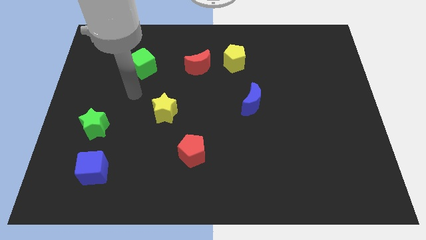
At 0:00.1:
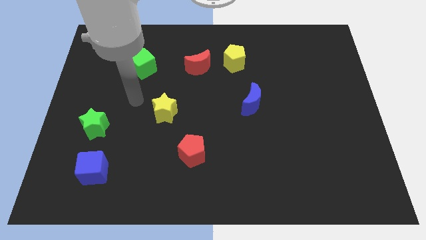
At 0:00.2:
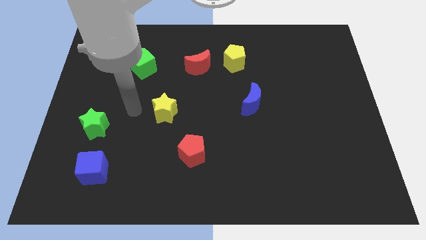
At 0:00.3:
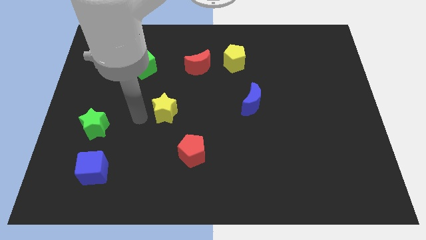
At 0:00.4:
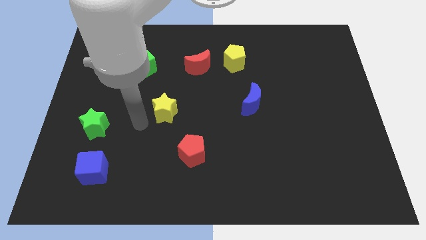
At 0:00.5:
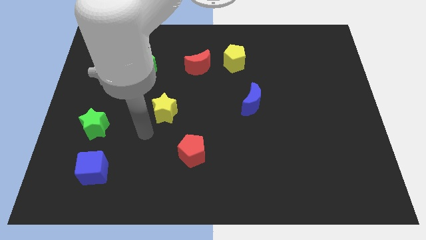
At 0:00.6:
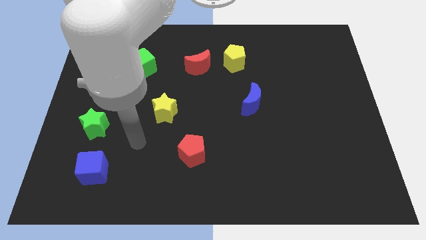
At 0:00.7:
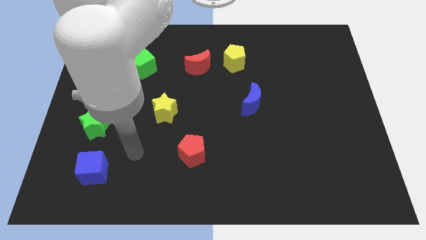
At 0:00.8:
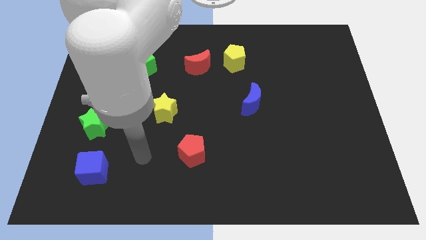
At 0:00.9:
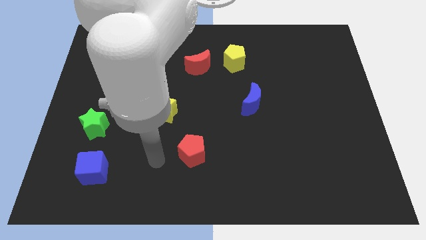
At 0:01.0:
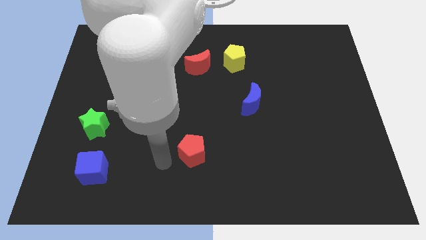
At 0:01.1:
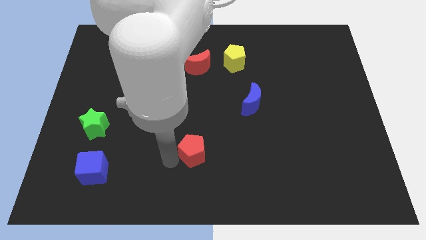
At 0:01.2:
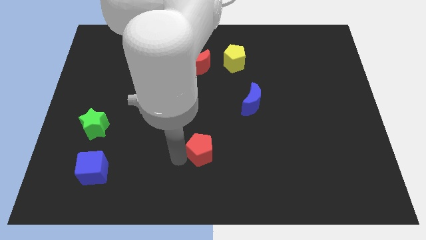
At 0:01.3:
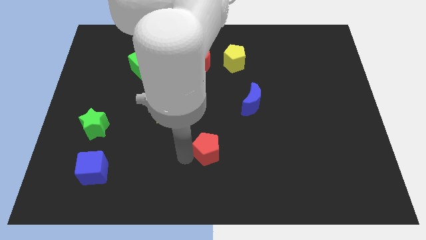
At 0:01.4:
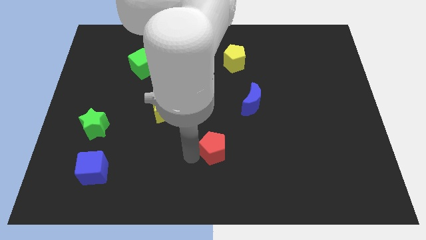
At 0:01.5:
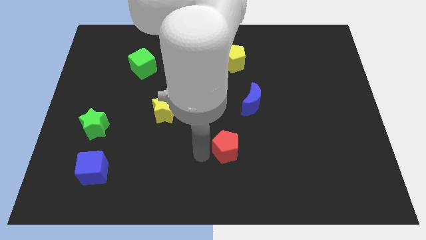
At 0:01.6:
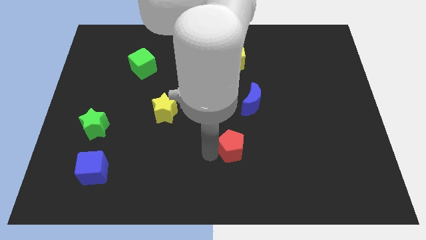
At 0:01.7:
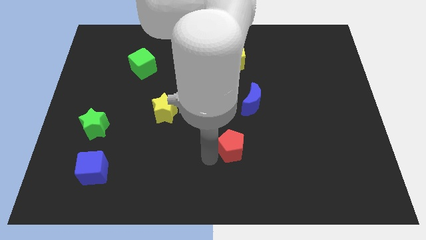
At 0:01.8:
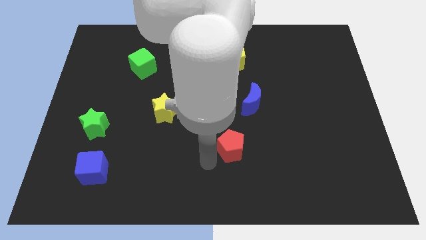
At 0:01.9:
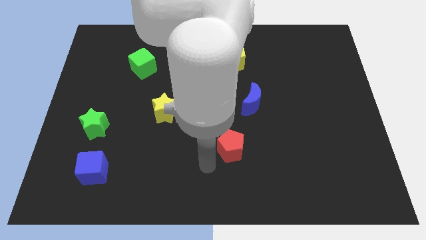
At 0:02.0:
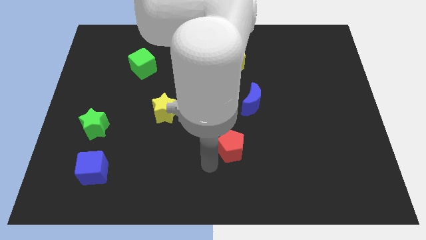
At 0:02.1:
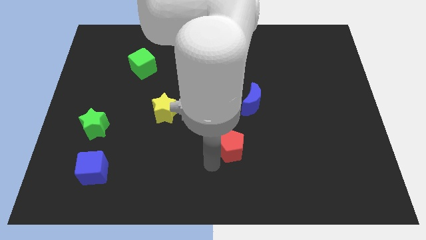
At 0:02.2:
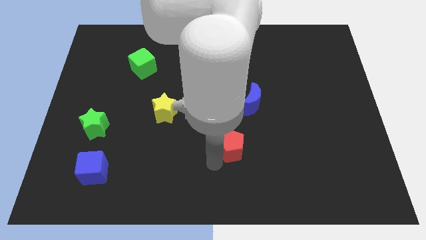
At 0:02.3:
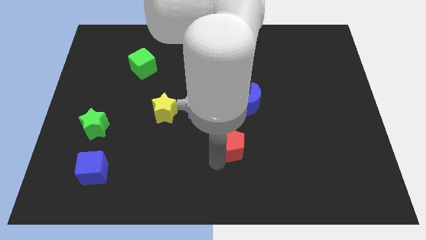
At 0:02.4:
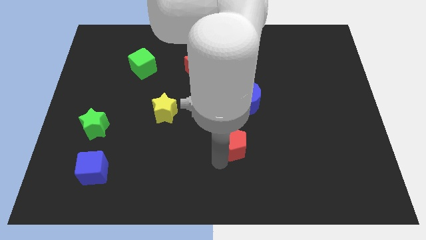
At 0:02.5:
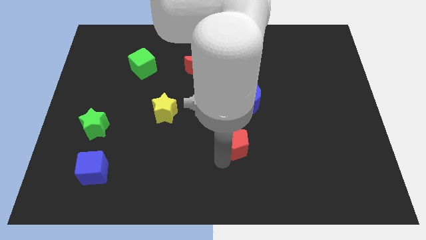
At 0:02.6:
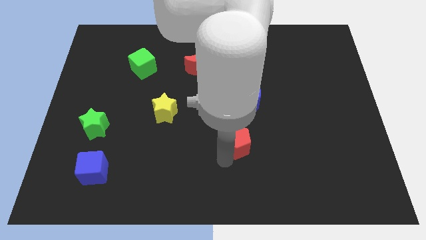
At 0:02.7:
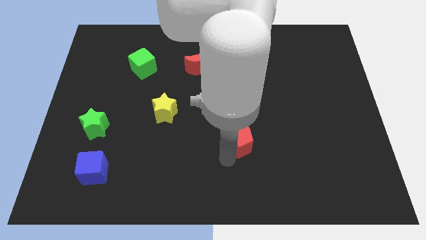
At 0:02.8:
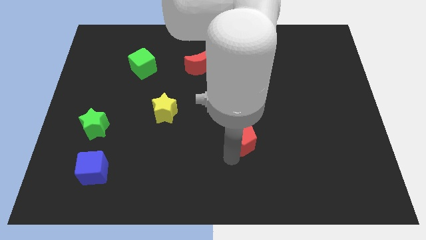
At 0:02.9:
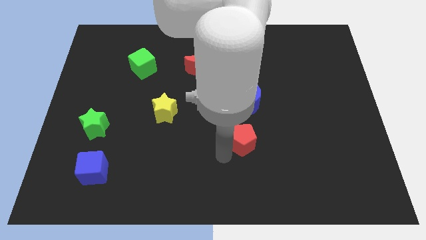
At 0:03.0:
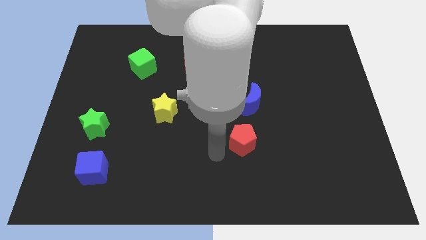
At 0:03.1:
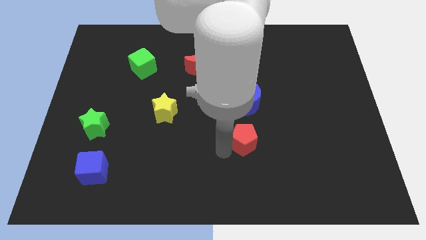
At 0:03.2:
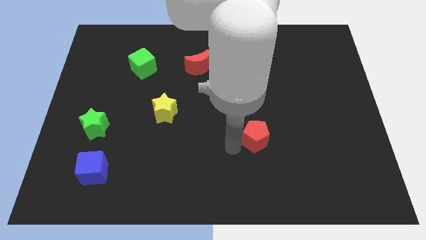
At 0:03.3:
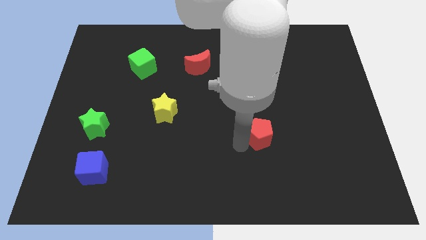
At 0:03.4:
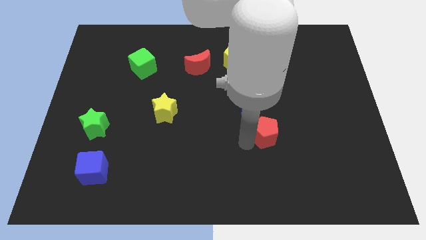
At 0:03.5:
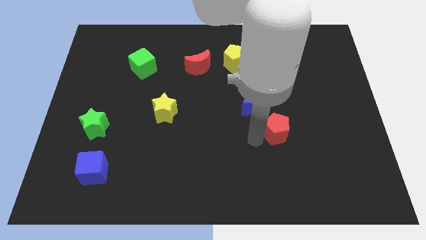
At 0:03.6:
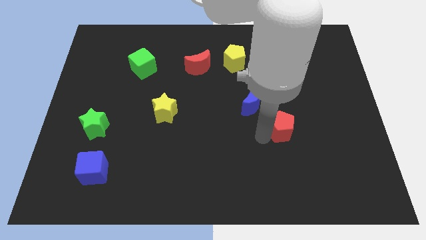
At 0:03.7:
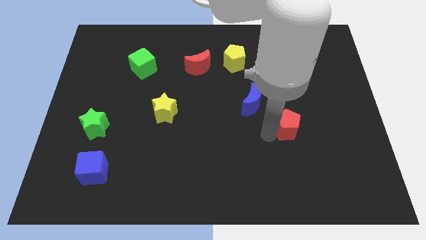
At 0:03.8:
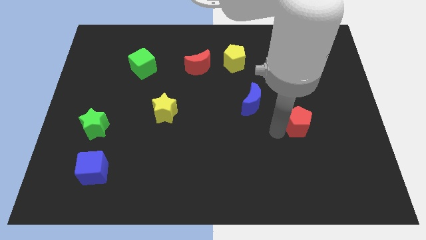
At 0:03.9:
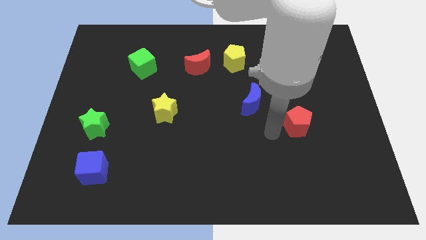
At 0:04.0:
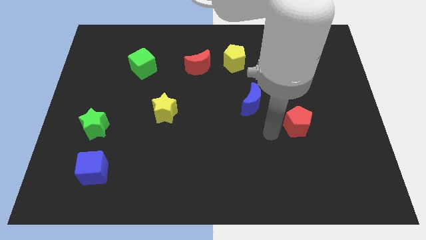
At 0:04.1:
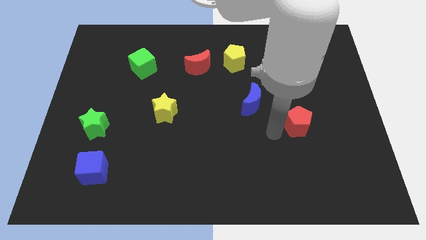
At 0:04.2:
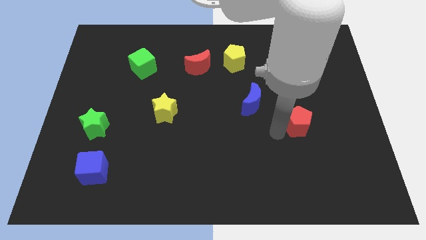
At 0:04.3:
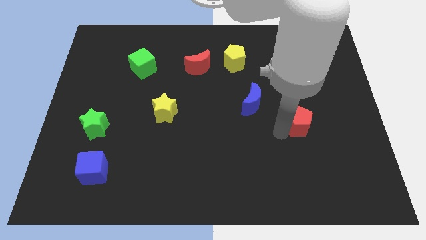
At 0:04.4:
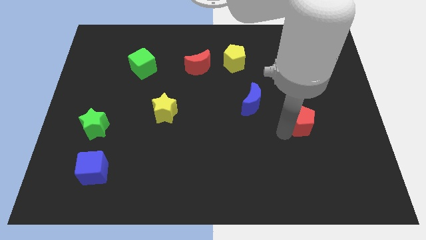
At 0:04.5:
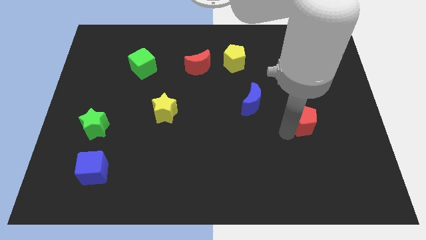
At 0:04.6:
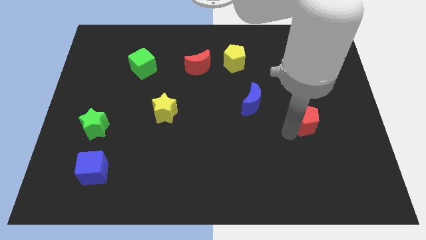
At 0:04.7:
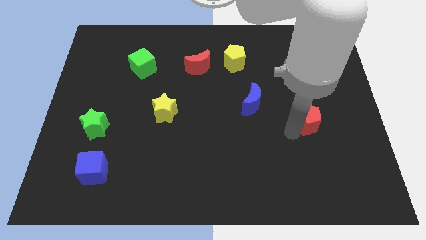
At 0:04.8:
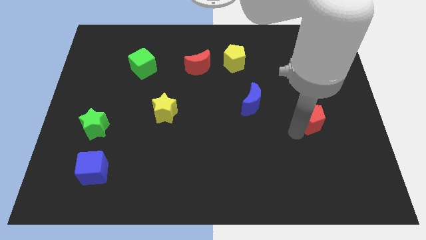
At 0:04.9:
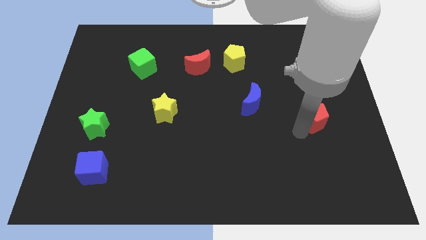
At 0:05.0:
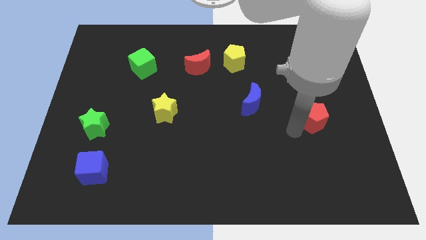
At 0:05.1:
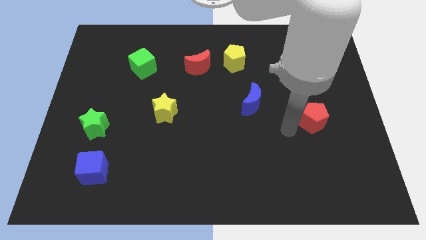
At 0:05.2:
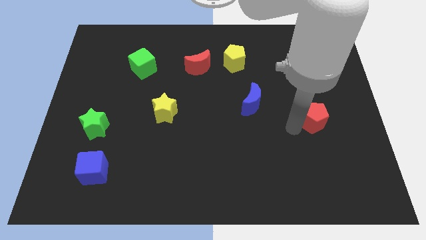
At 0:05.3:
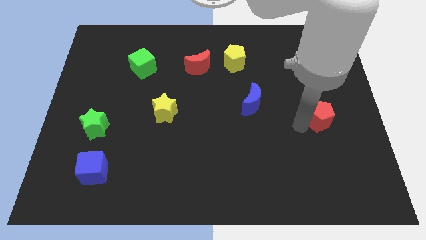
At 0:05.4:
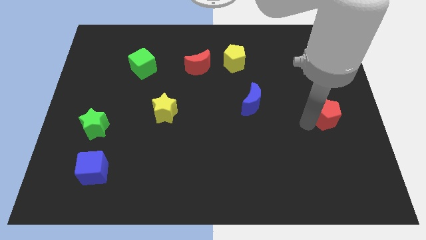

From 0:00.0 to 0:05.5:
push the red pentagon to the center right
